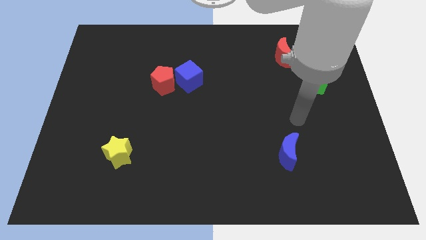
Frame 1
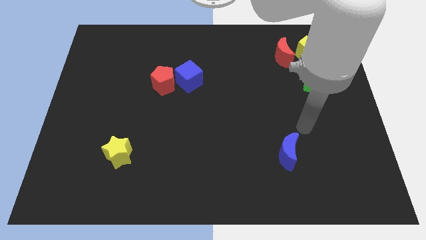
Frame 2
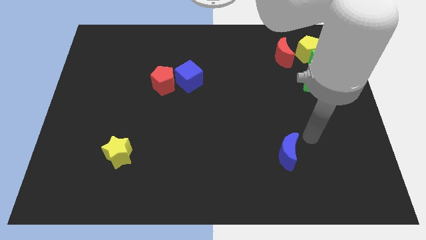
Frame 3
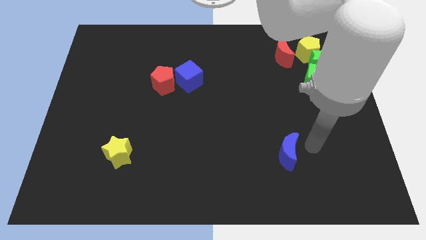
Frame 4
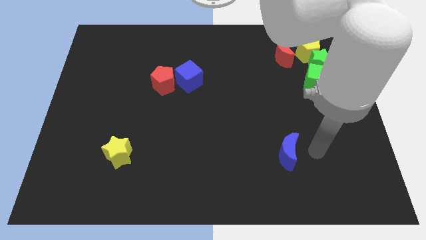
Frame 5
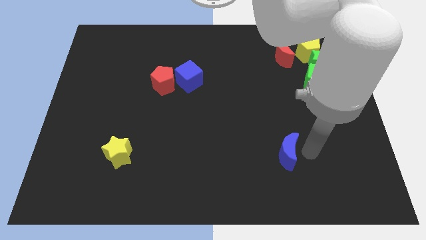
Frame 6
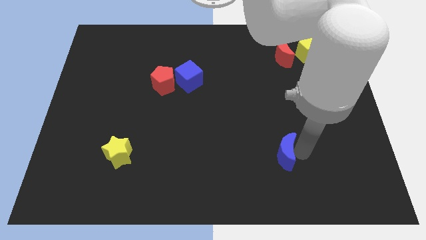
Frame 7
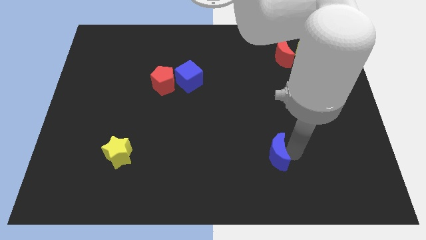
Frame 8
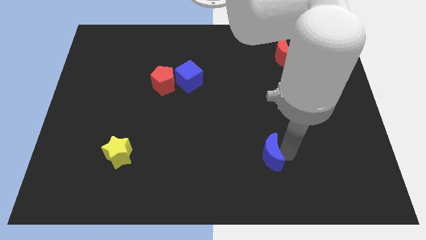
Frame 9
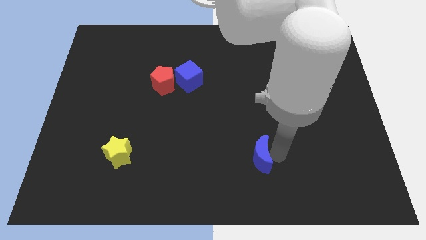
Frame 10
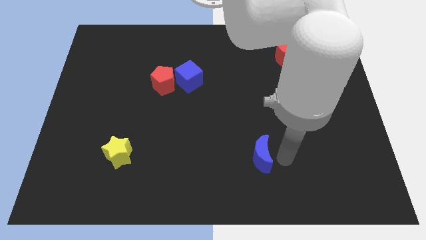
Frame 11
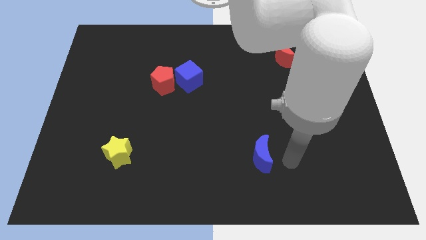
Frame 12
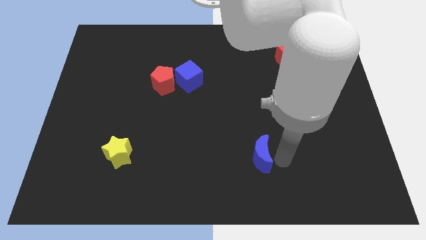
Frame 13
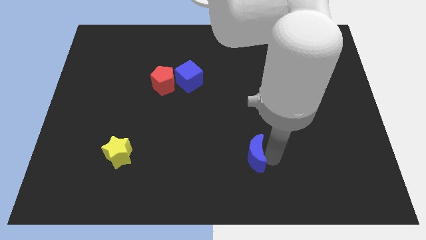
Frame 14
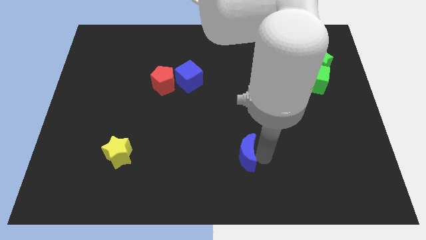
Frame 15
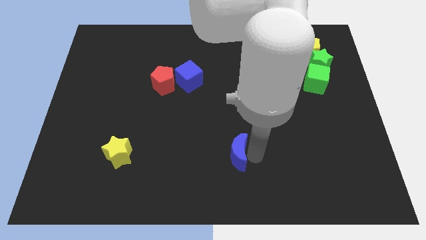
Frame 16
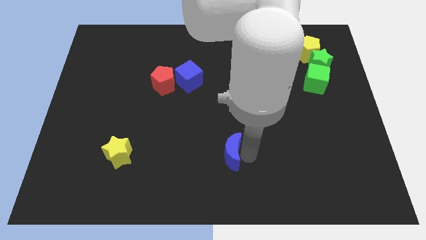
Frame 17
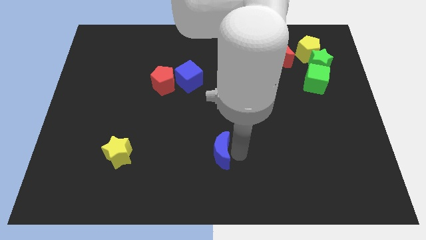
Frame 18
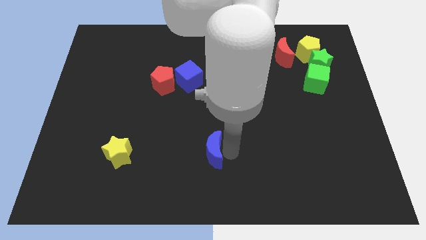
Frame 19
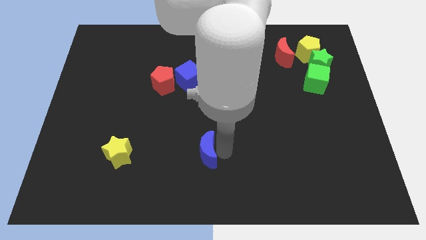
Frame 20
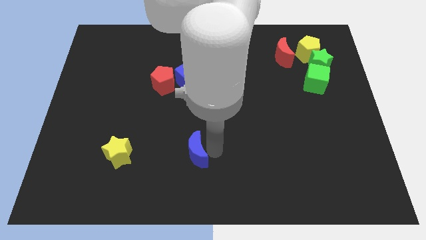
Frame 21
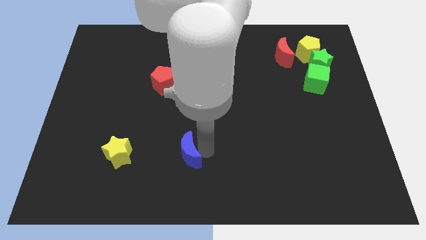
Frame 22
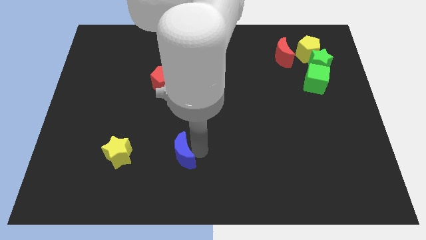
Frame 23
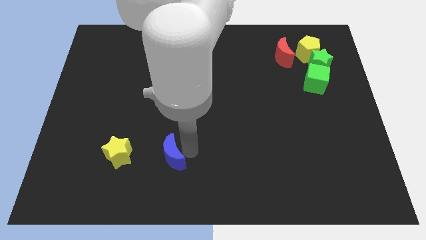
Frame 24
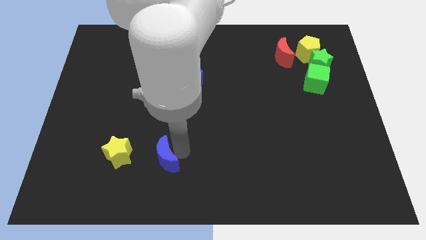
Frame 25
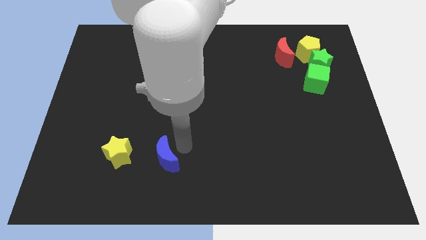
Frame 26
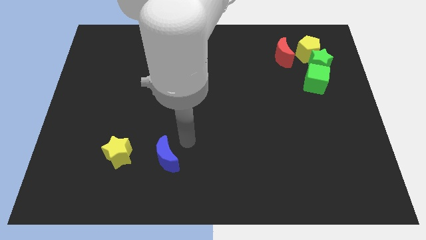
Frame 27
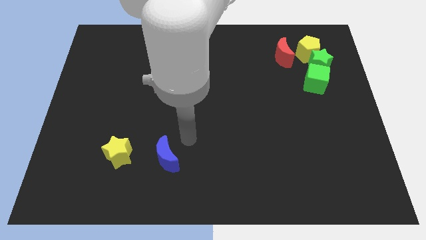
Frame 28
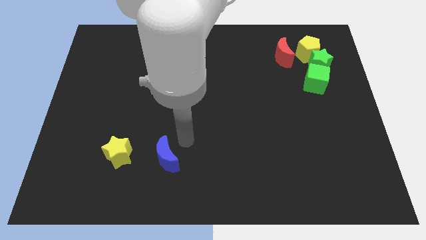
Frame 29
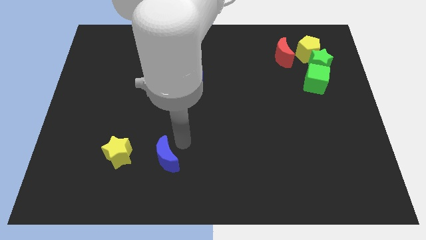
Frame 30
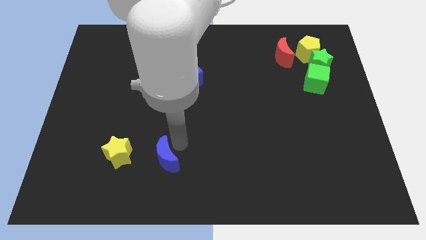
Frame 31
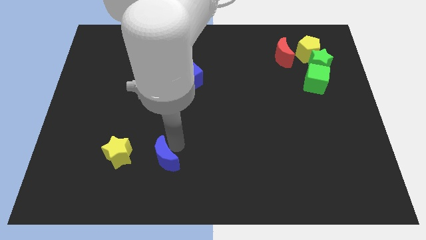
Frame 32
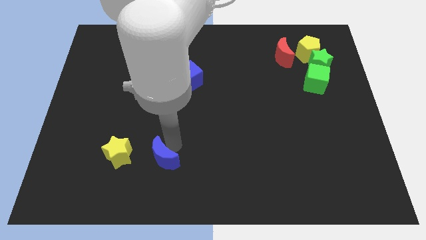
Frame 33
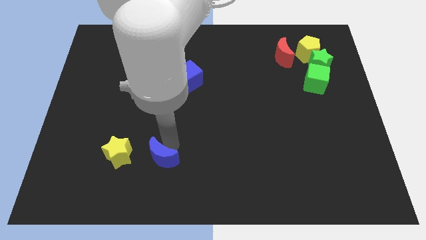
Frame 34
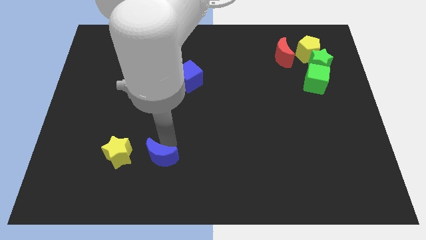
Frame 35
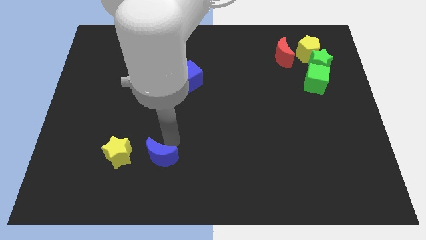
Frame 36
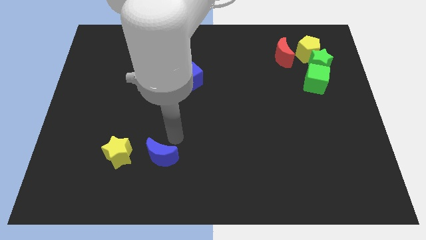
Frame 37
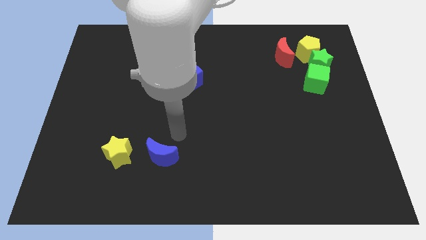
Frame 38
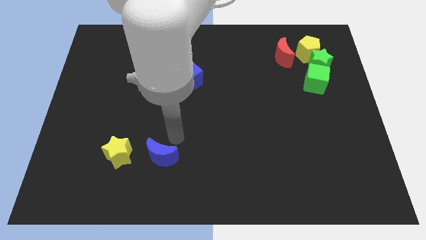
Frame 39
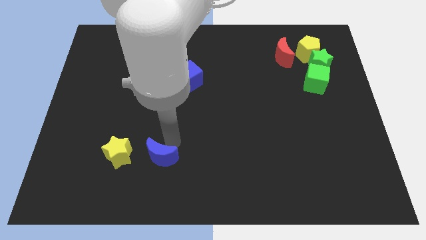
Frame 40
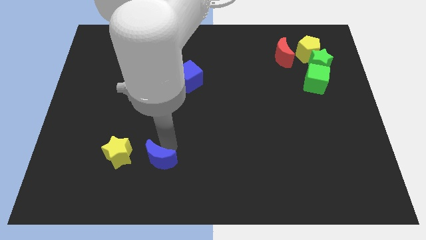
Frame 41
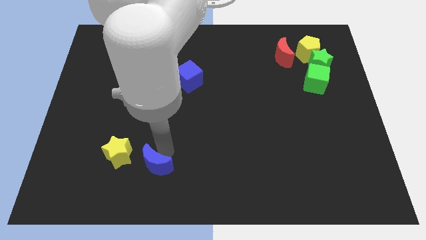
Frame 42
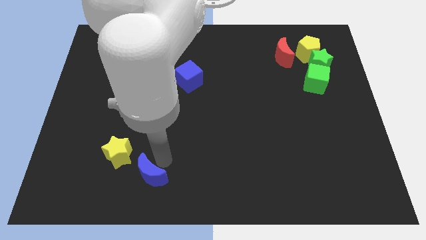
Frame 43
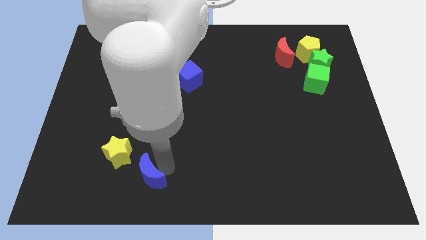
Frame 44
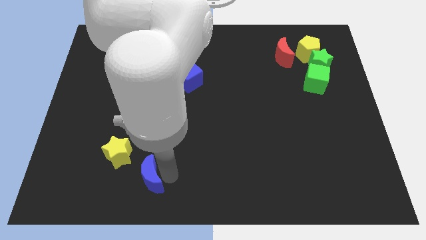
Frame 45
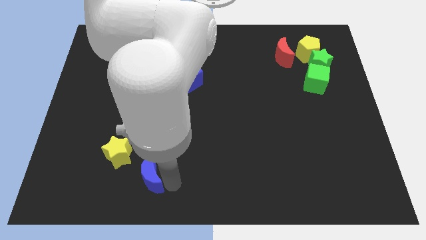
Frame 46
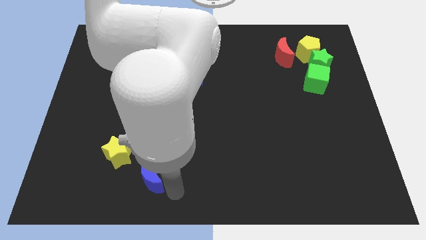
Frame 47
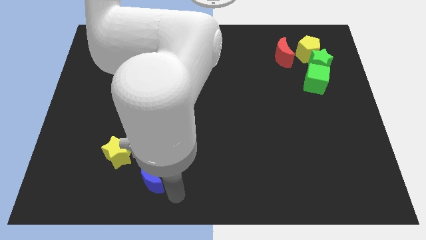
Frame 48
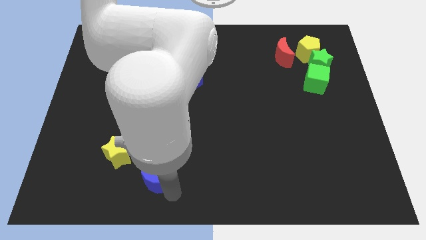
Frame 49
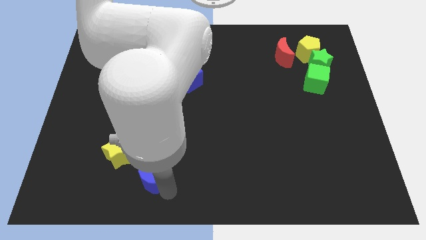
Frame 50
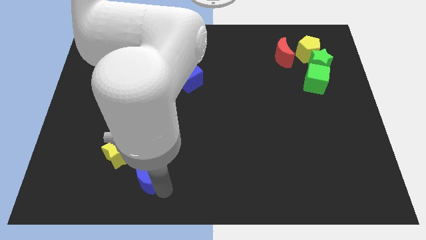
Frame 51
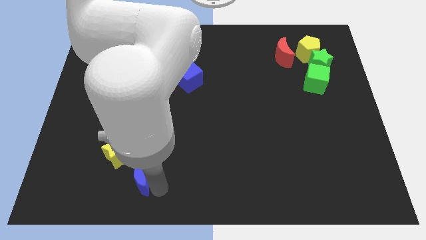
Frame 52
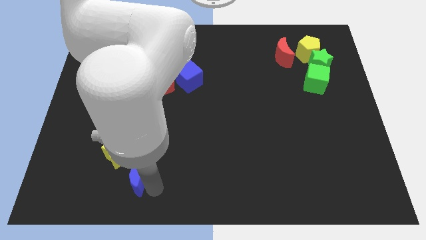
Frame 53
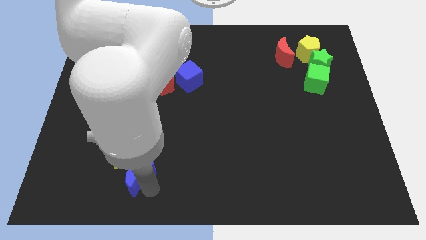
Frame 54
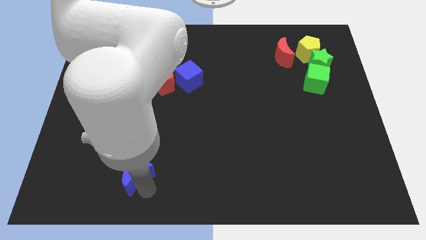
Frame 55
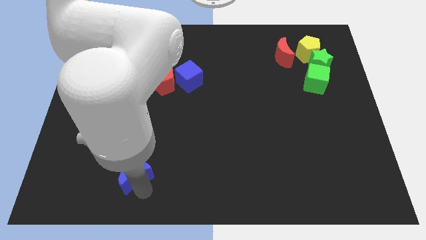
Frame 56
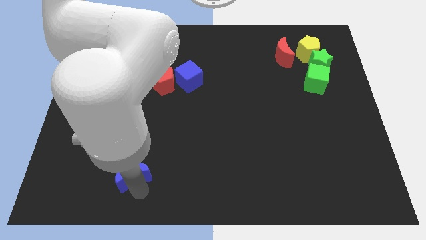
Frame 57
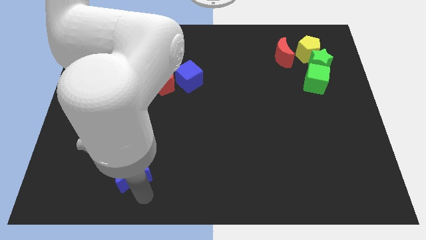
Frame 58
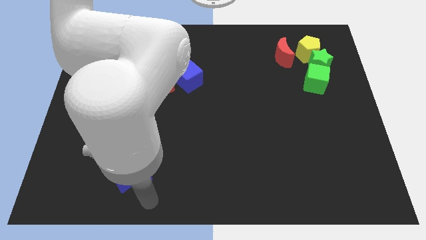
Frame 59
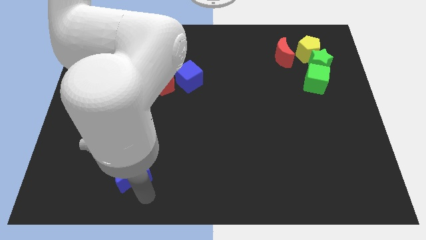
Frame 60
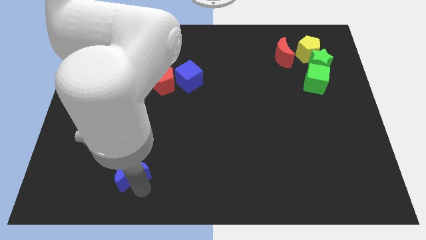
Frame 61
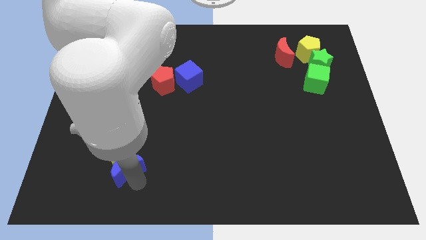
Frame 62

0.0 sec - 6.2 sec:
put the blue moon next to the yellow star

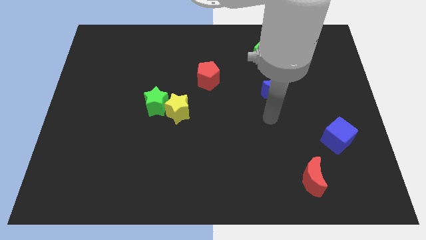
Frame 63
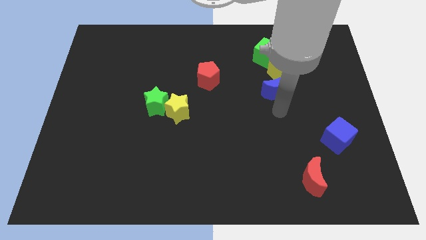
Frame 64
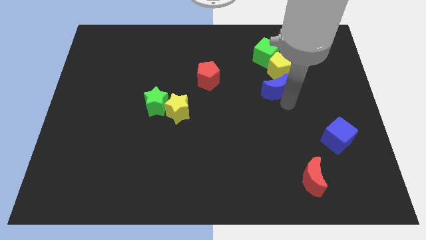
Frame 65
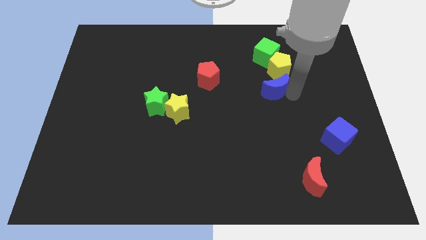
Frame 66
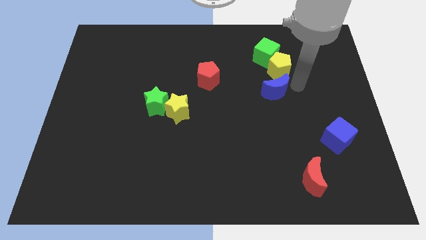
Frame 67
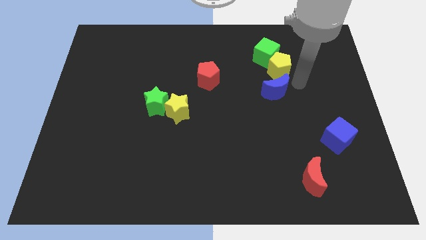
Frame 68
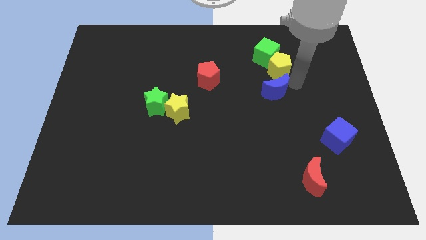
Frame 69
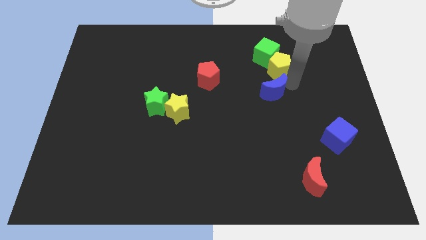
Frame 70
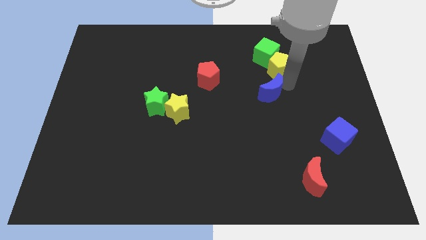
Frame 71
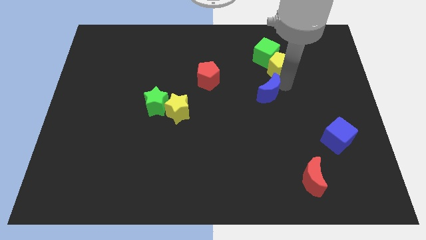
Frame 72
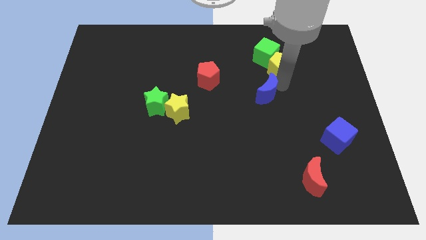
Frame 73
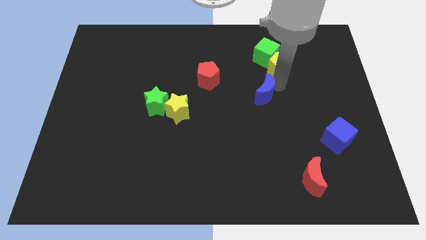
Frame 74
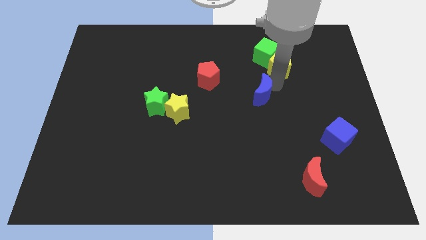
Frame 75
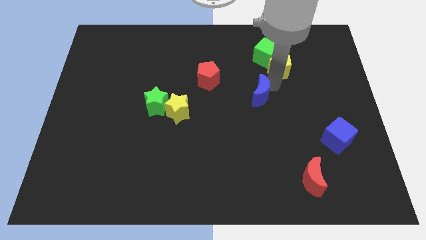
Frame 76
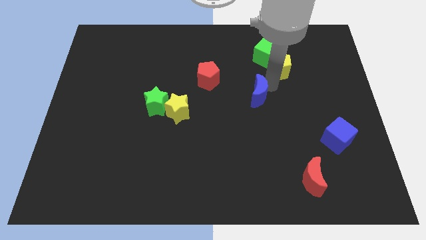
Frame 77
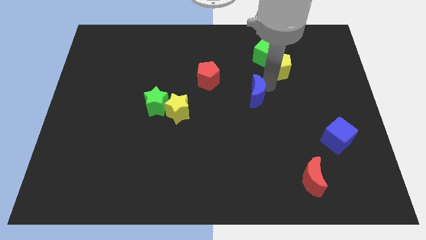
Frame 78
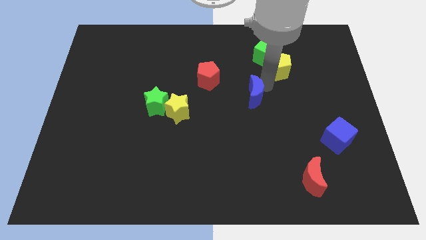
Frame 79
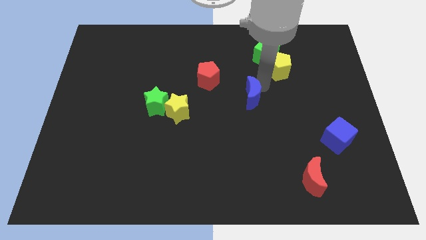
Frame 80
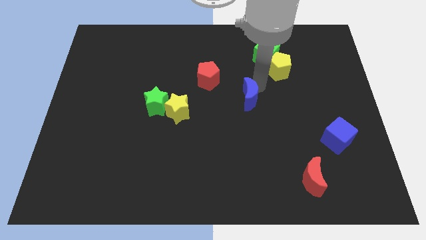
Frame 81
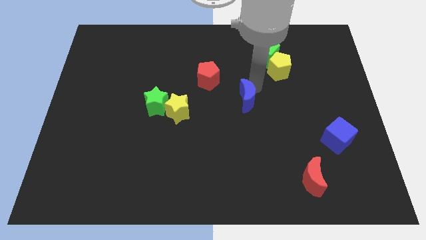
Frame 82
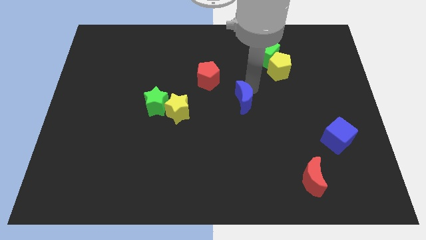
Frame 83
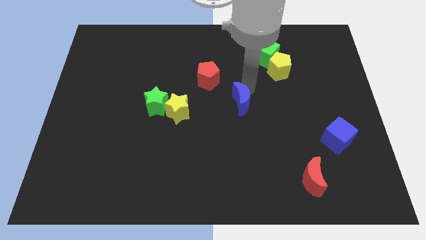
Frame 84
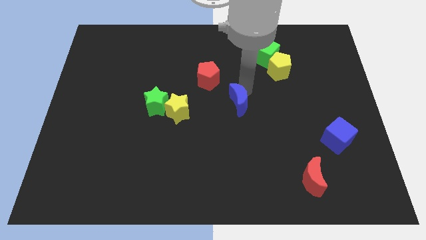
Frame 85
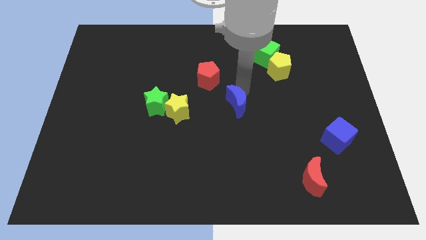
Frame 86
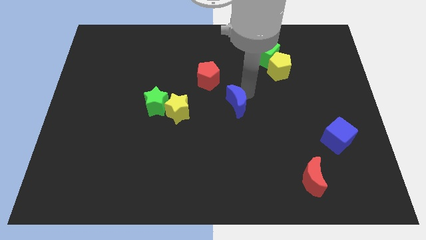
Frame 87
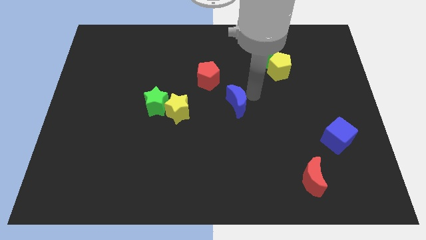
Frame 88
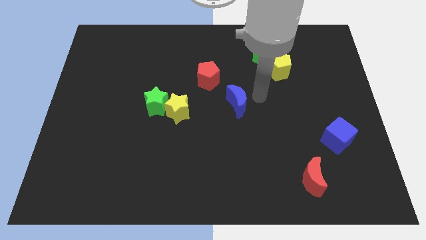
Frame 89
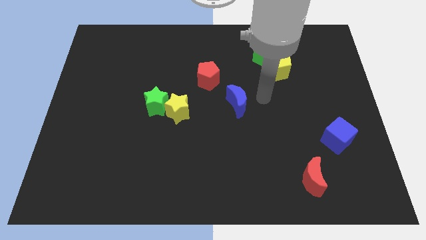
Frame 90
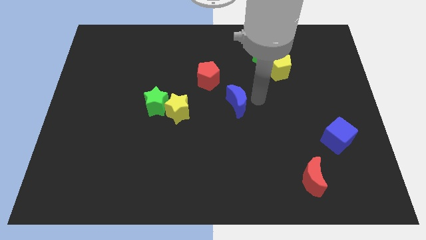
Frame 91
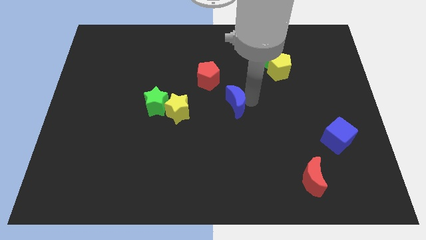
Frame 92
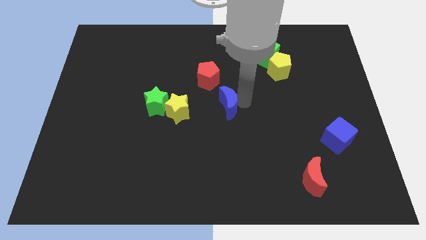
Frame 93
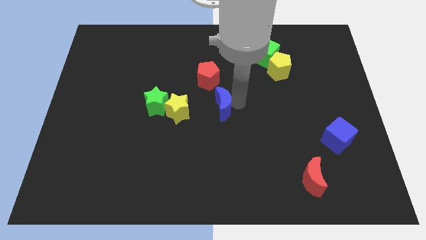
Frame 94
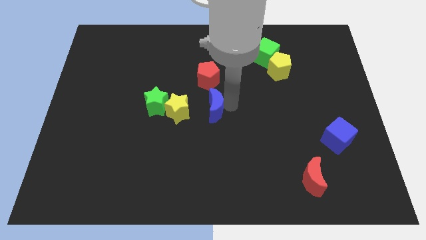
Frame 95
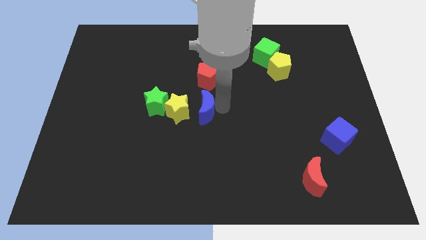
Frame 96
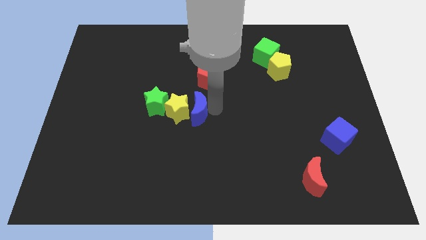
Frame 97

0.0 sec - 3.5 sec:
move the blue moon to the yellow star
